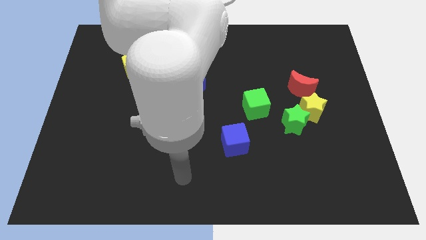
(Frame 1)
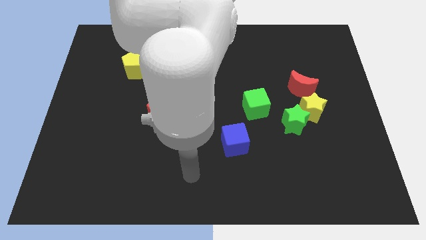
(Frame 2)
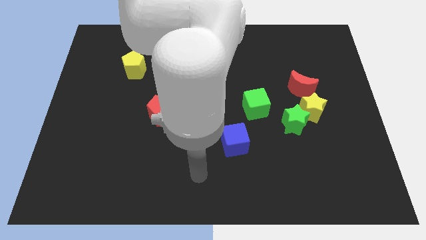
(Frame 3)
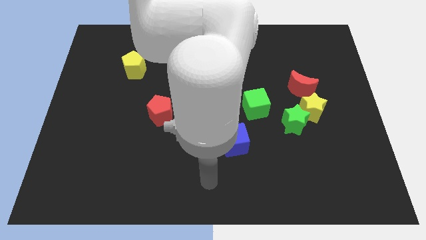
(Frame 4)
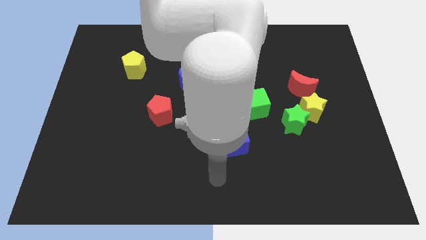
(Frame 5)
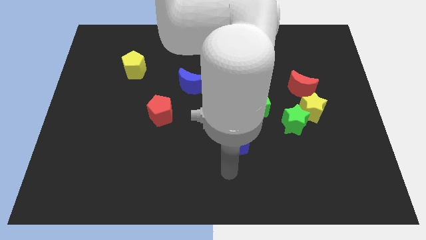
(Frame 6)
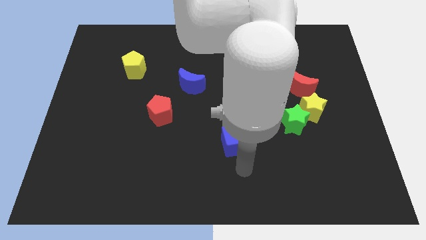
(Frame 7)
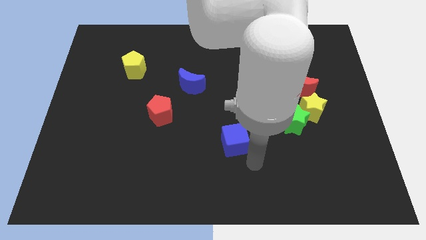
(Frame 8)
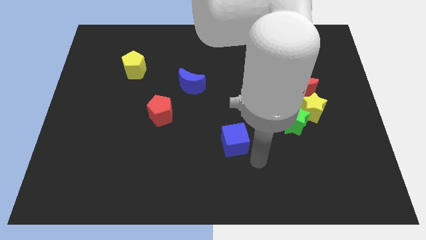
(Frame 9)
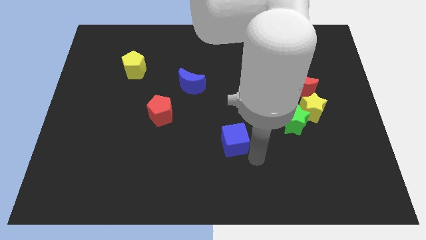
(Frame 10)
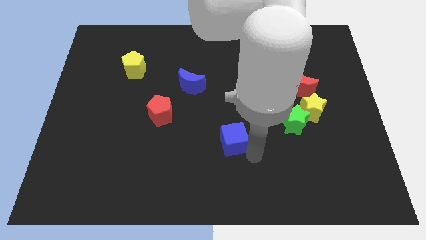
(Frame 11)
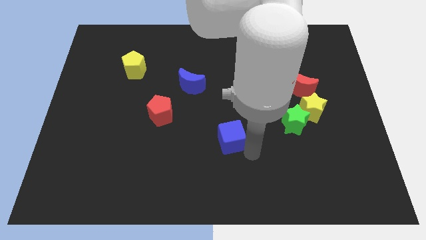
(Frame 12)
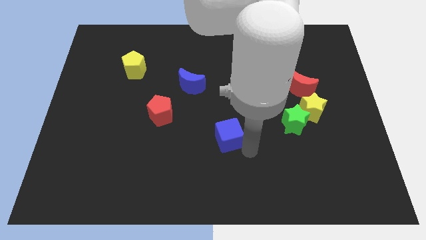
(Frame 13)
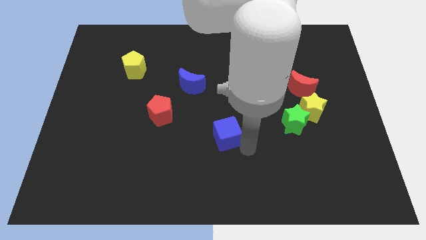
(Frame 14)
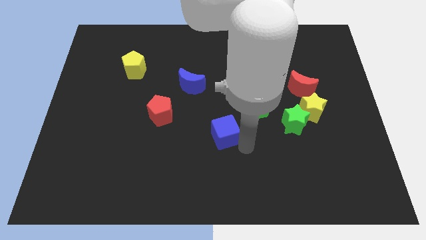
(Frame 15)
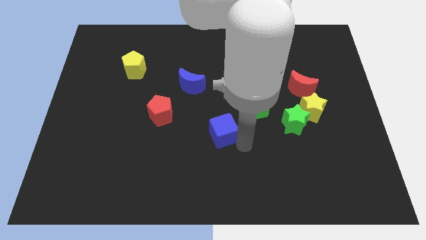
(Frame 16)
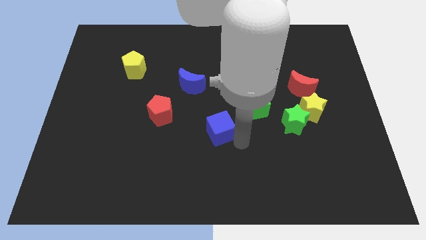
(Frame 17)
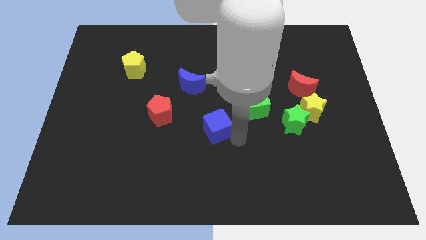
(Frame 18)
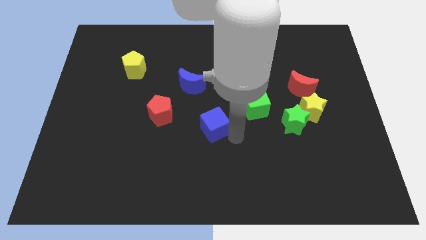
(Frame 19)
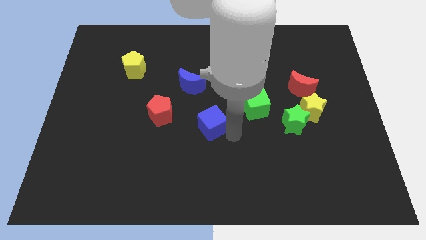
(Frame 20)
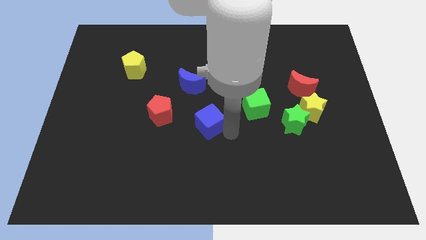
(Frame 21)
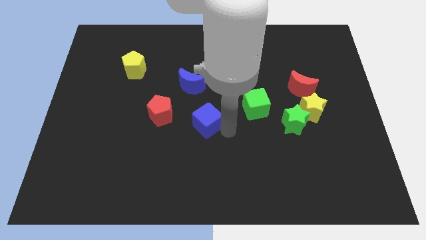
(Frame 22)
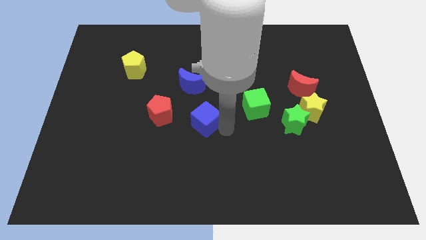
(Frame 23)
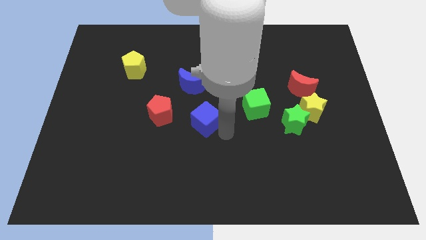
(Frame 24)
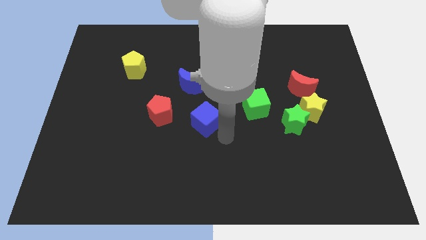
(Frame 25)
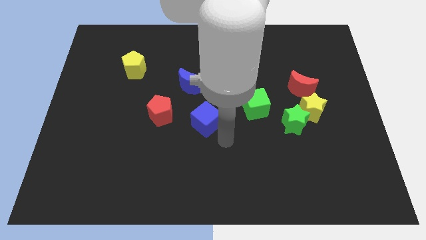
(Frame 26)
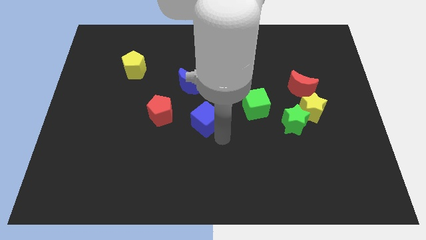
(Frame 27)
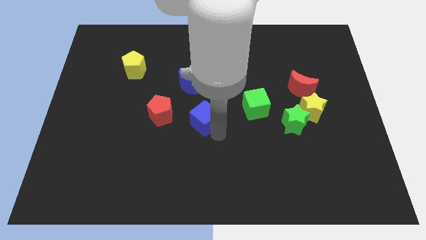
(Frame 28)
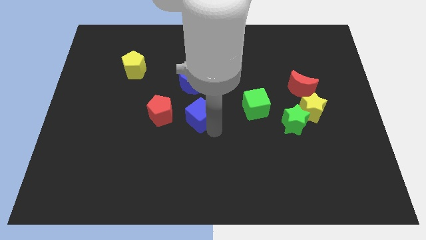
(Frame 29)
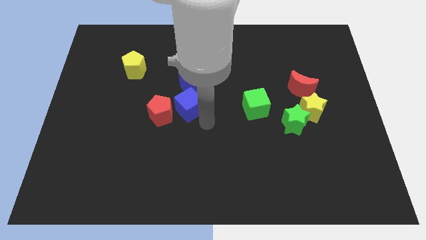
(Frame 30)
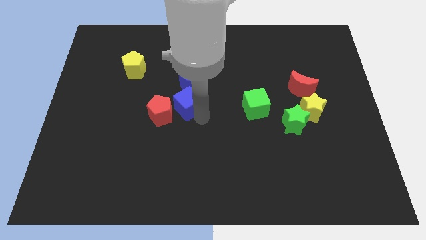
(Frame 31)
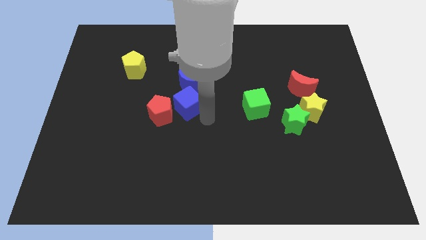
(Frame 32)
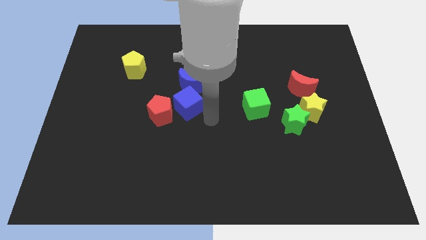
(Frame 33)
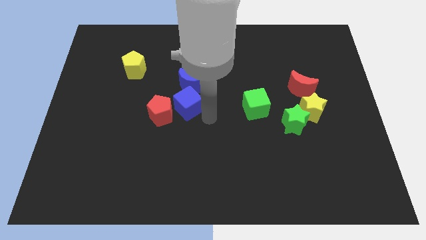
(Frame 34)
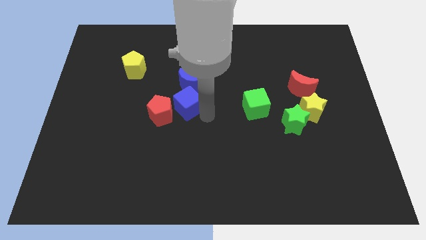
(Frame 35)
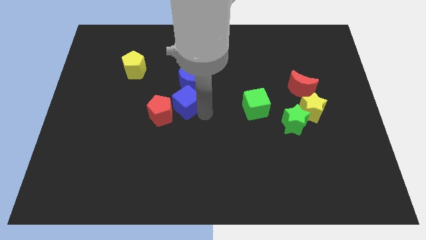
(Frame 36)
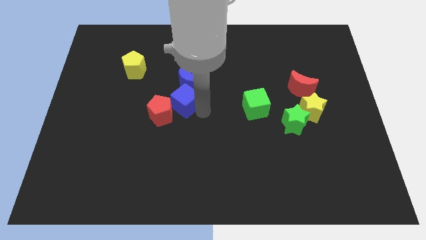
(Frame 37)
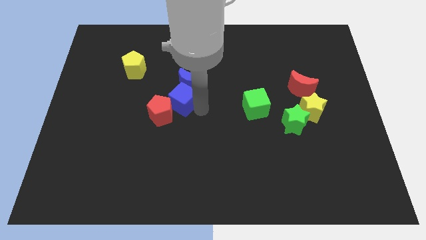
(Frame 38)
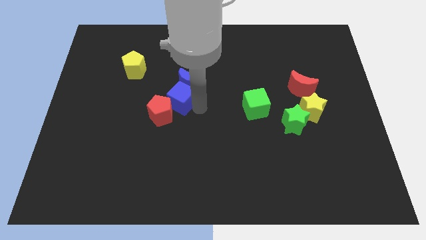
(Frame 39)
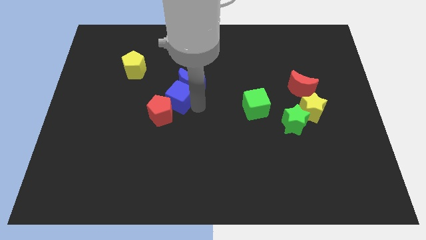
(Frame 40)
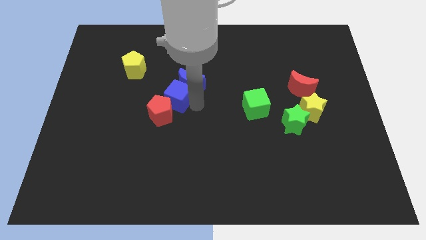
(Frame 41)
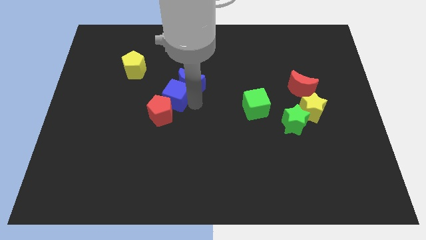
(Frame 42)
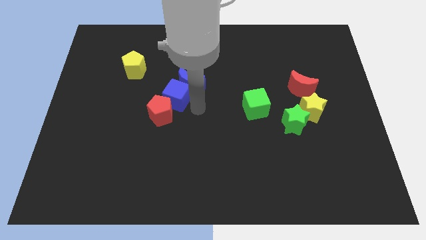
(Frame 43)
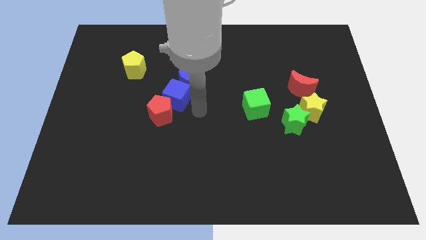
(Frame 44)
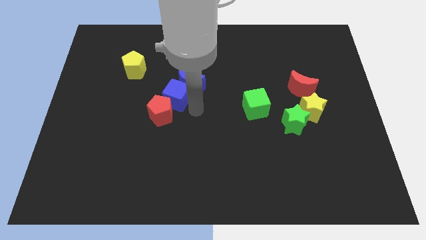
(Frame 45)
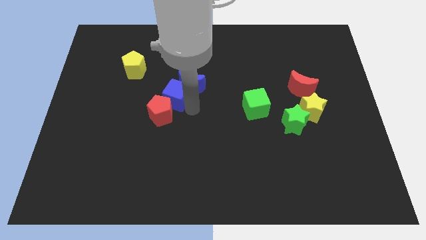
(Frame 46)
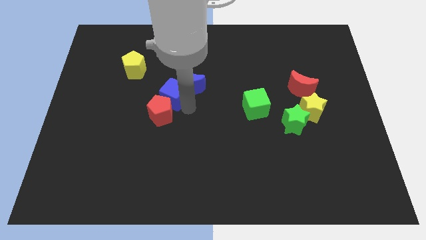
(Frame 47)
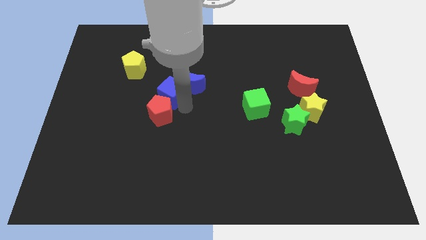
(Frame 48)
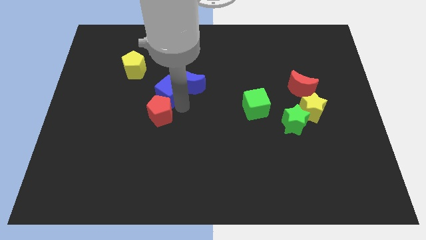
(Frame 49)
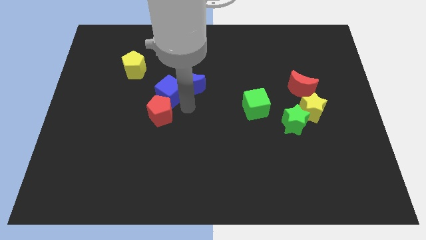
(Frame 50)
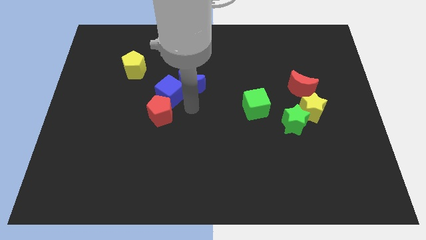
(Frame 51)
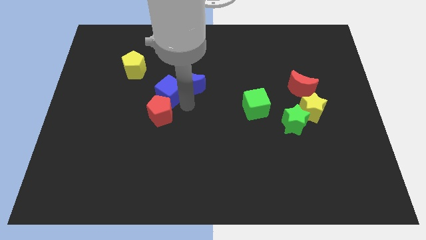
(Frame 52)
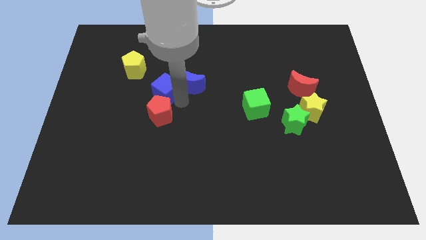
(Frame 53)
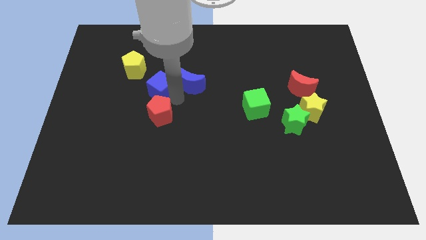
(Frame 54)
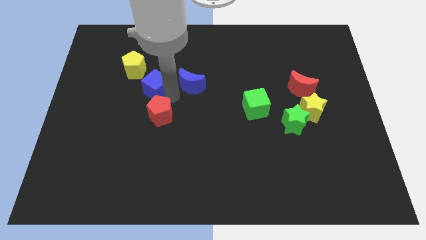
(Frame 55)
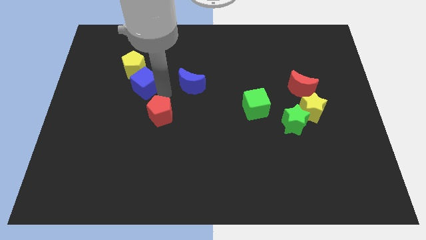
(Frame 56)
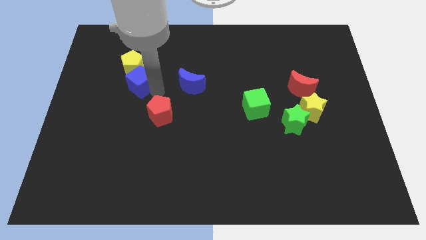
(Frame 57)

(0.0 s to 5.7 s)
move the blue cube to the yellow pentagon

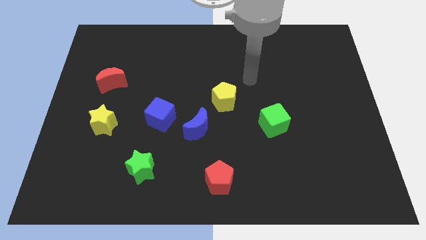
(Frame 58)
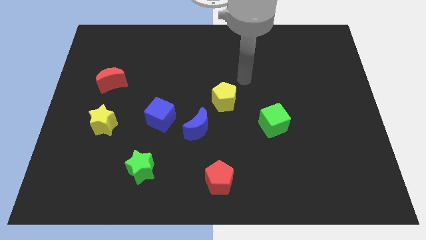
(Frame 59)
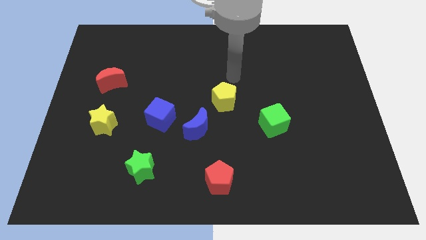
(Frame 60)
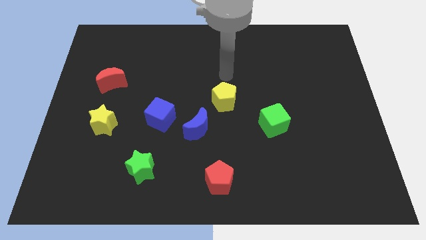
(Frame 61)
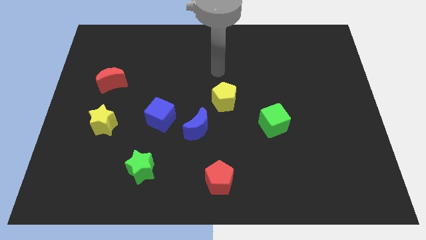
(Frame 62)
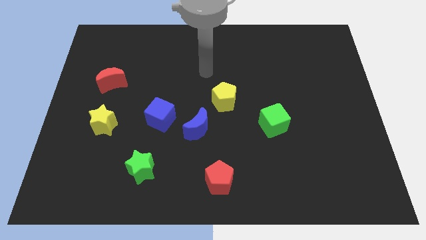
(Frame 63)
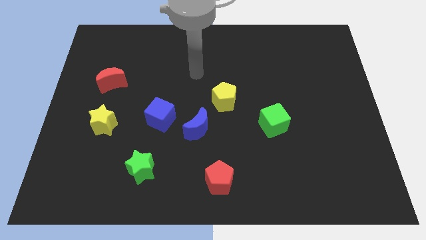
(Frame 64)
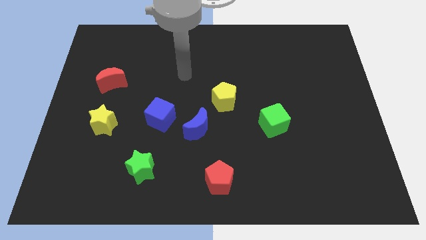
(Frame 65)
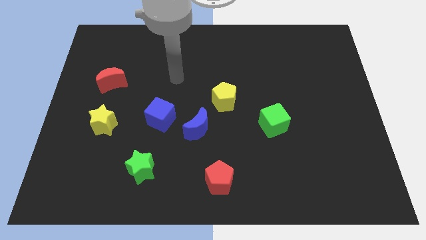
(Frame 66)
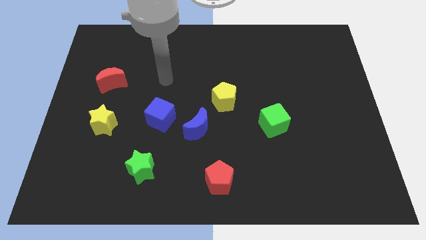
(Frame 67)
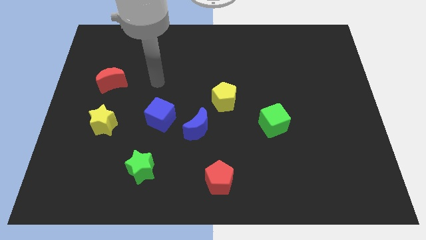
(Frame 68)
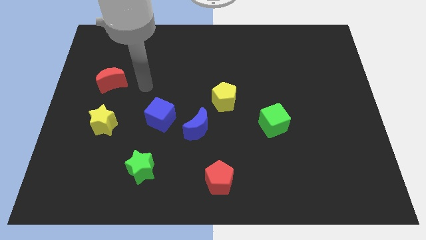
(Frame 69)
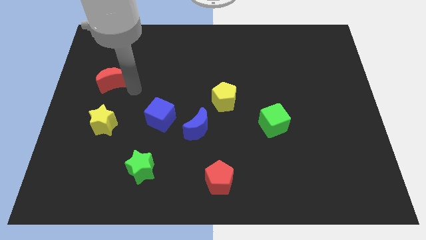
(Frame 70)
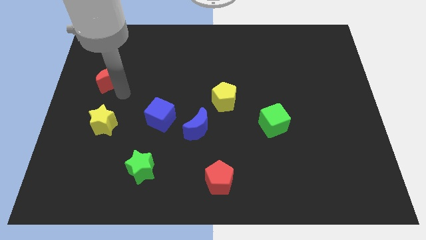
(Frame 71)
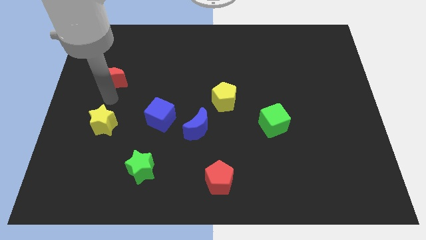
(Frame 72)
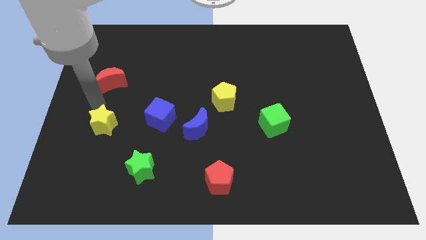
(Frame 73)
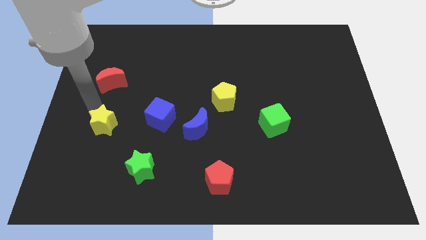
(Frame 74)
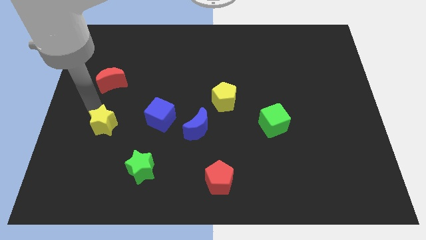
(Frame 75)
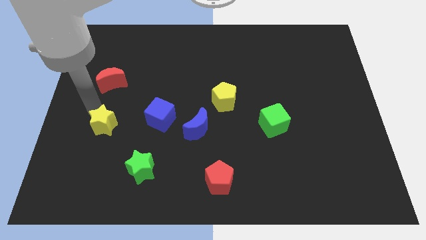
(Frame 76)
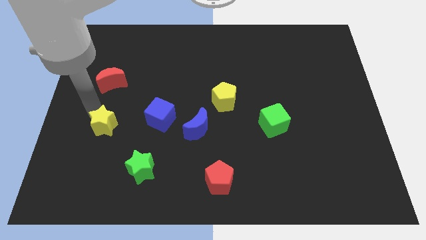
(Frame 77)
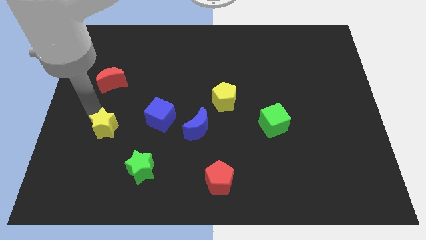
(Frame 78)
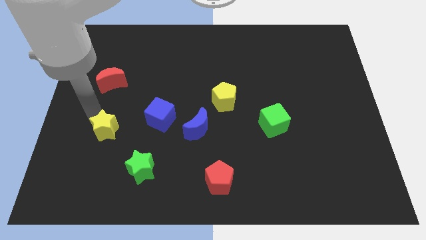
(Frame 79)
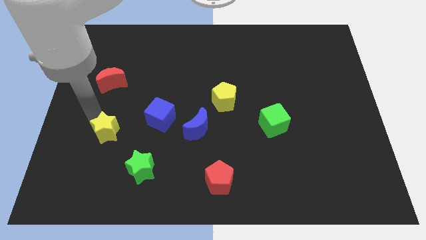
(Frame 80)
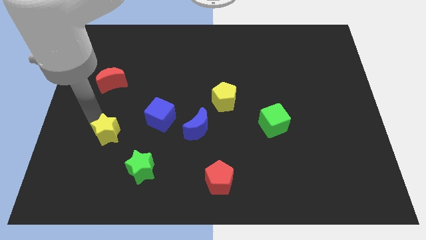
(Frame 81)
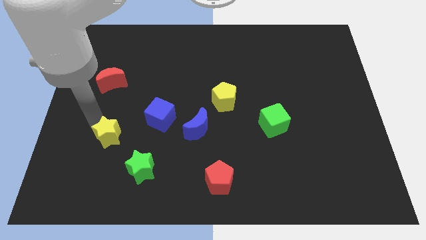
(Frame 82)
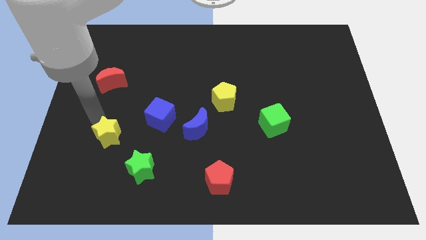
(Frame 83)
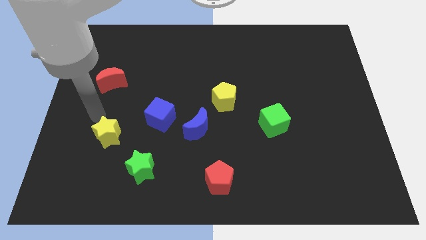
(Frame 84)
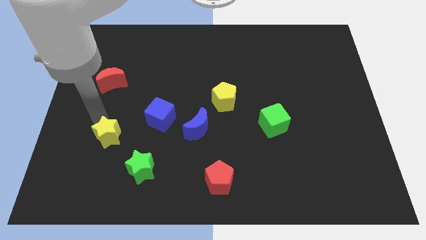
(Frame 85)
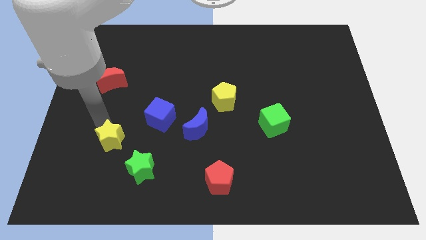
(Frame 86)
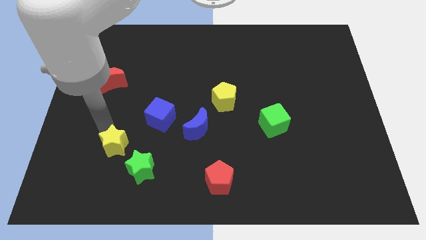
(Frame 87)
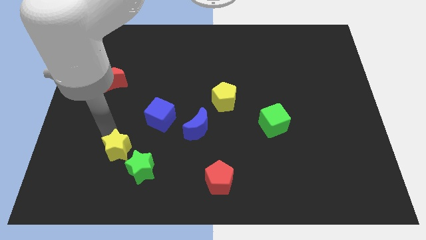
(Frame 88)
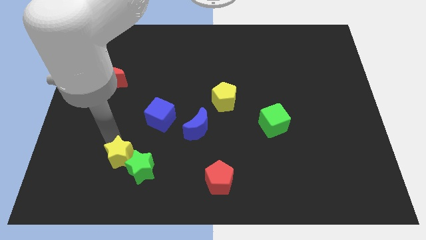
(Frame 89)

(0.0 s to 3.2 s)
move the yellow star close to the green star
